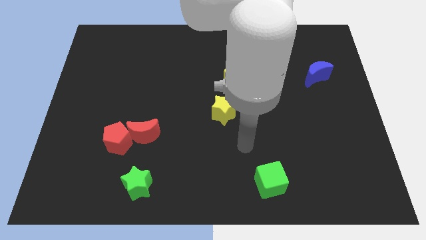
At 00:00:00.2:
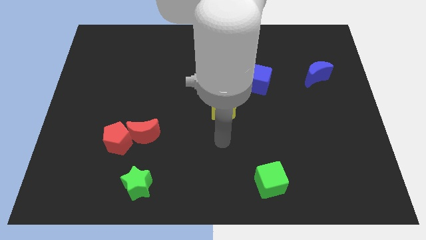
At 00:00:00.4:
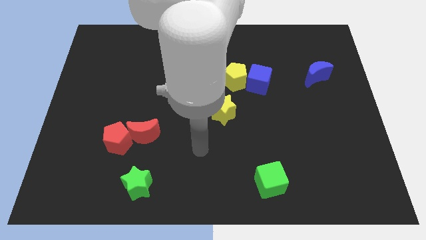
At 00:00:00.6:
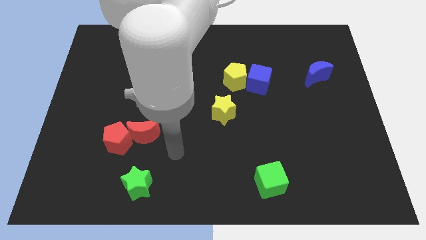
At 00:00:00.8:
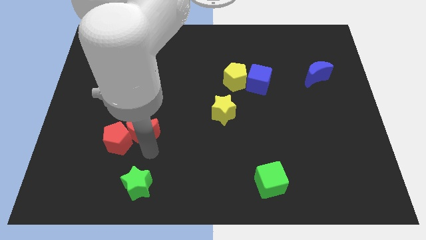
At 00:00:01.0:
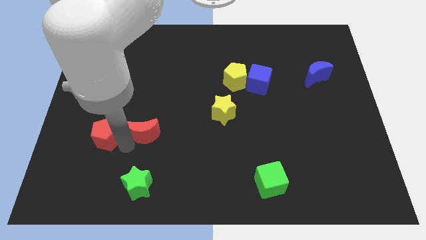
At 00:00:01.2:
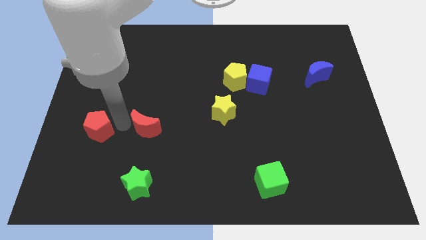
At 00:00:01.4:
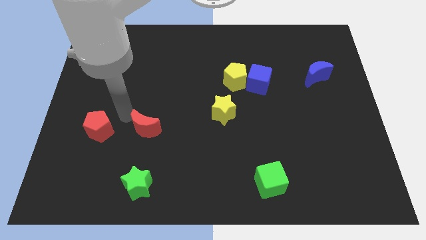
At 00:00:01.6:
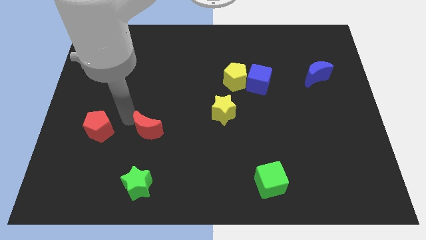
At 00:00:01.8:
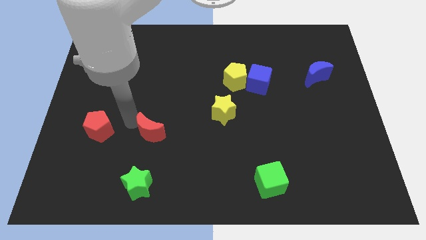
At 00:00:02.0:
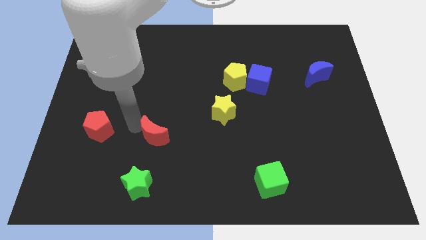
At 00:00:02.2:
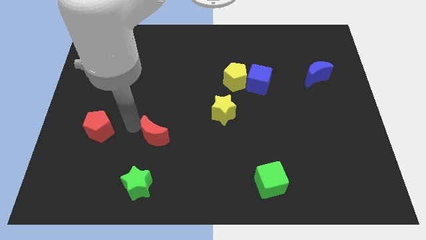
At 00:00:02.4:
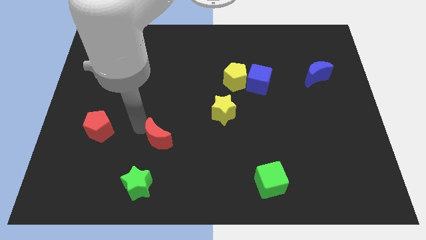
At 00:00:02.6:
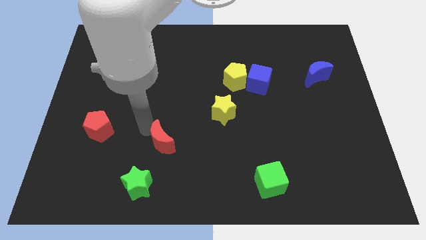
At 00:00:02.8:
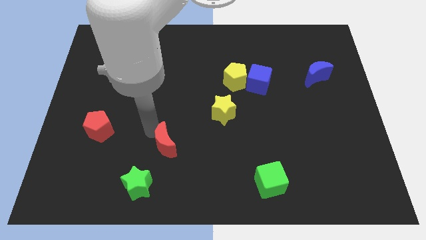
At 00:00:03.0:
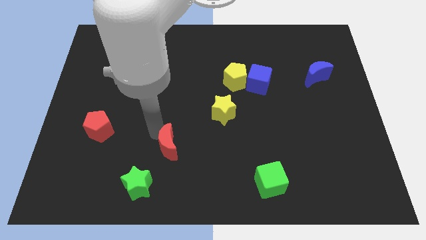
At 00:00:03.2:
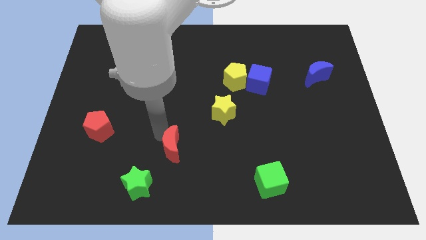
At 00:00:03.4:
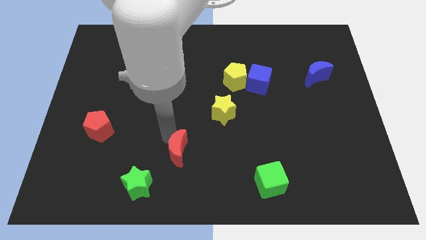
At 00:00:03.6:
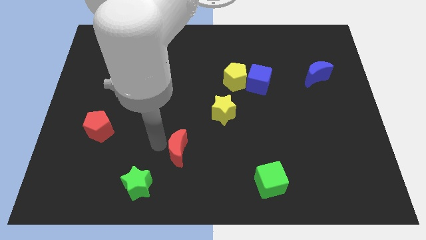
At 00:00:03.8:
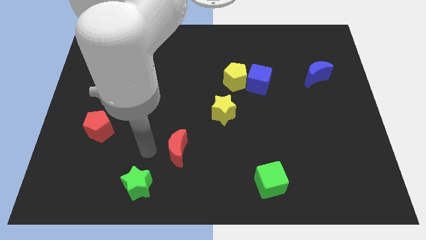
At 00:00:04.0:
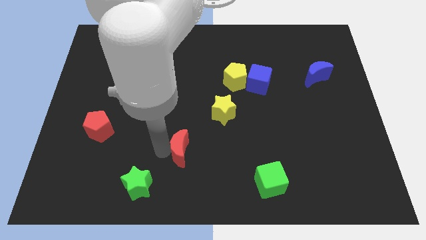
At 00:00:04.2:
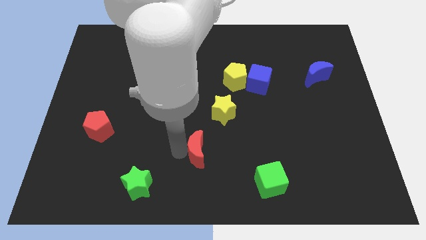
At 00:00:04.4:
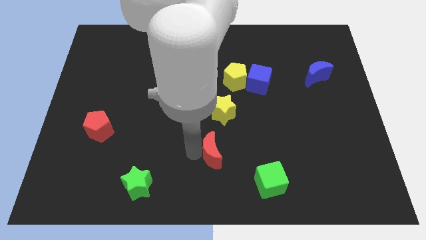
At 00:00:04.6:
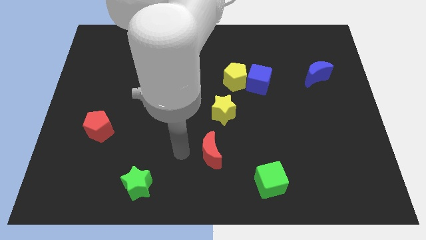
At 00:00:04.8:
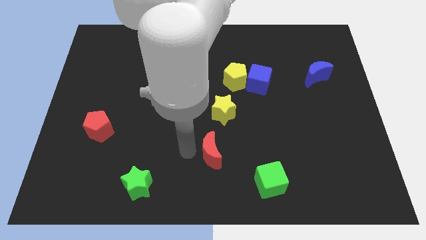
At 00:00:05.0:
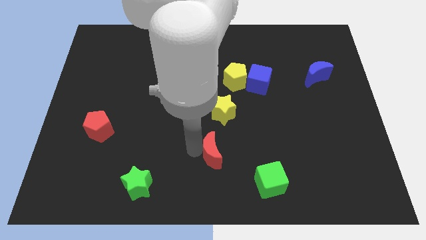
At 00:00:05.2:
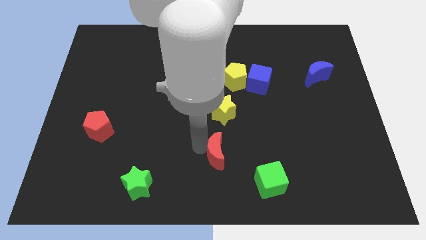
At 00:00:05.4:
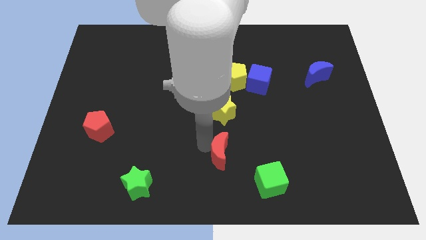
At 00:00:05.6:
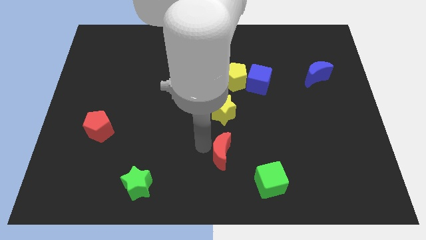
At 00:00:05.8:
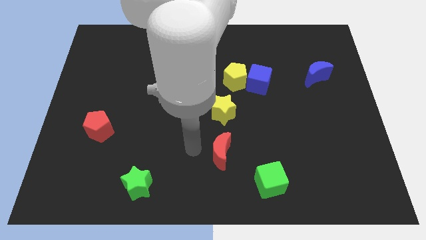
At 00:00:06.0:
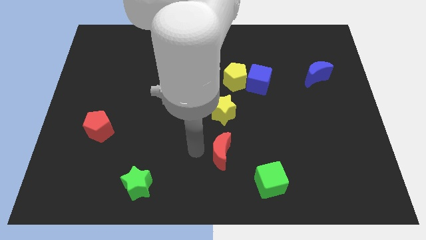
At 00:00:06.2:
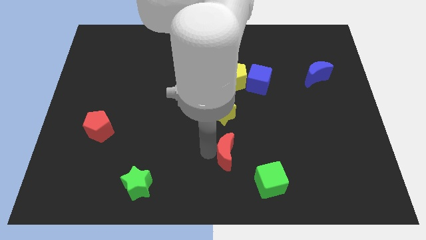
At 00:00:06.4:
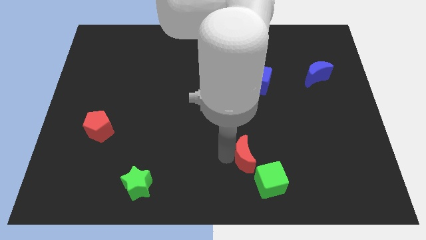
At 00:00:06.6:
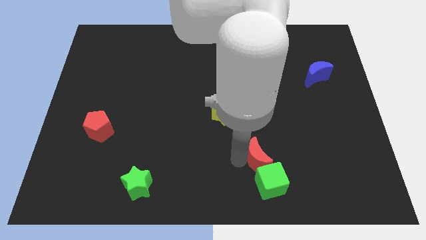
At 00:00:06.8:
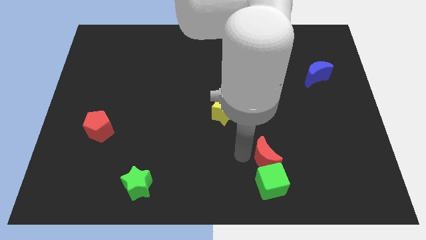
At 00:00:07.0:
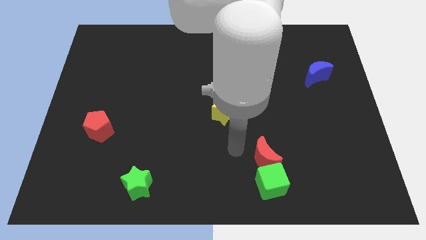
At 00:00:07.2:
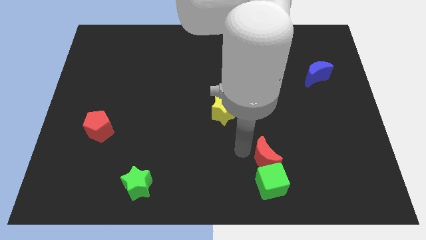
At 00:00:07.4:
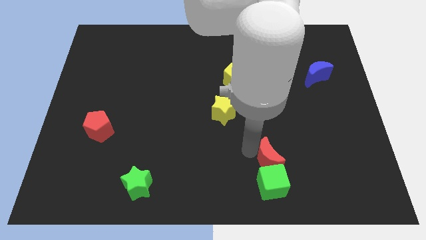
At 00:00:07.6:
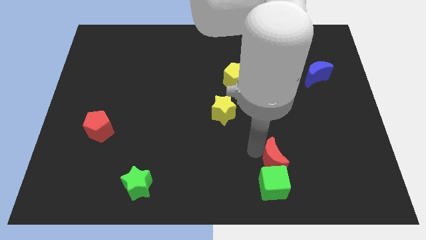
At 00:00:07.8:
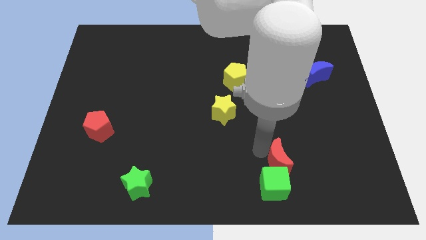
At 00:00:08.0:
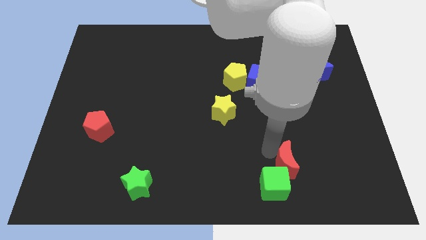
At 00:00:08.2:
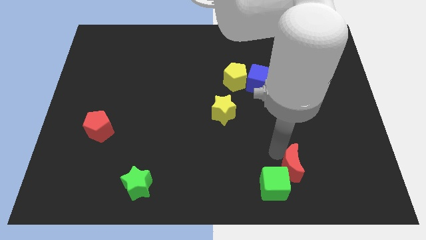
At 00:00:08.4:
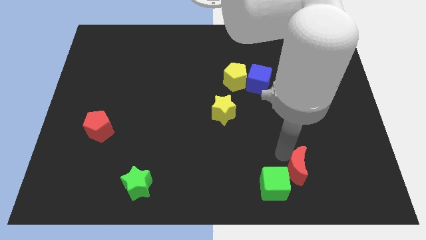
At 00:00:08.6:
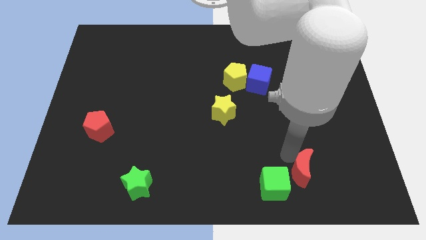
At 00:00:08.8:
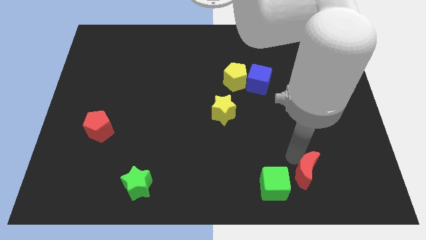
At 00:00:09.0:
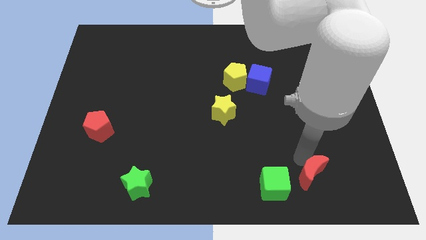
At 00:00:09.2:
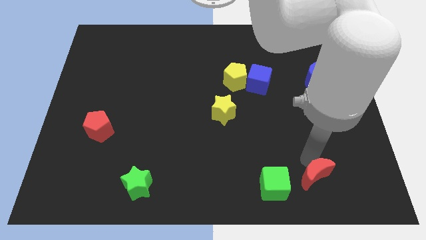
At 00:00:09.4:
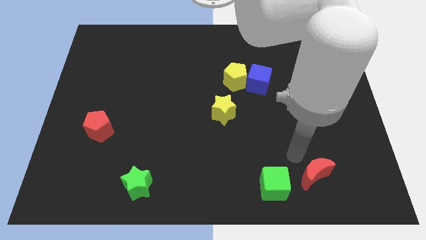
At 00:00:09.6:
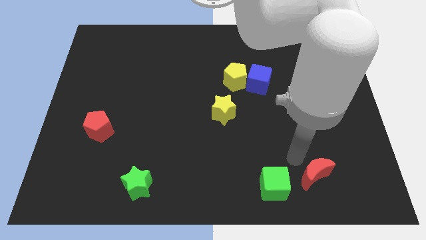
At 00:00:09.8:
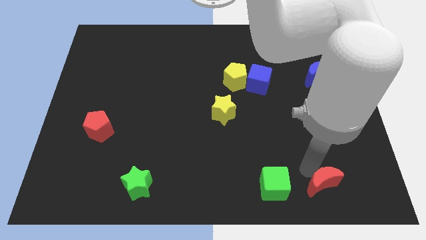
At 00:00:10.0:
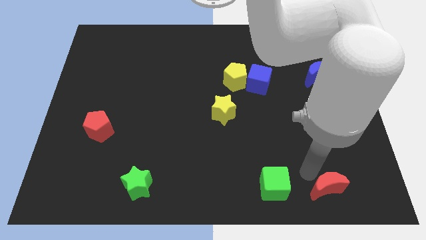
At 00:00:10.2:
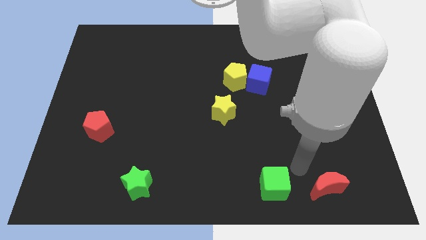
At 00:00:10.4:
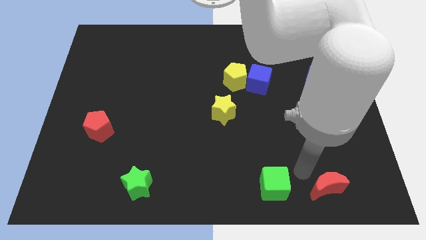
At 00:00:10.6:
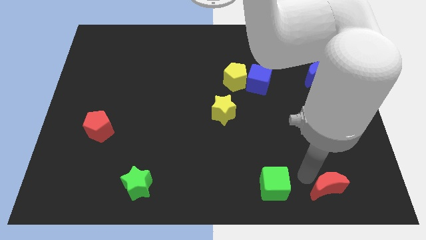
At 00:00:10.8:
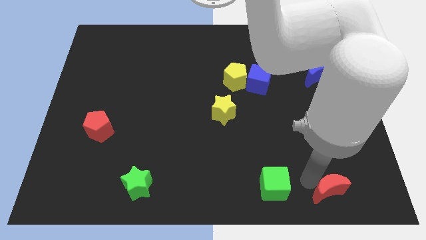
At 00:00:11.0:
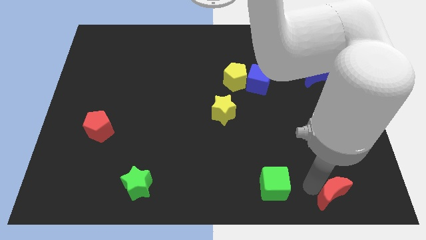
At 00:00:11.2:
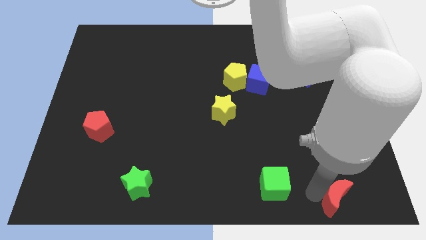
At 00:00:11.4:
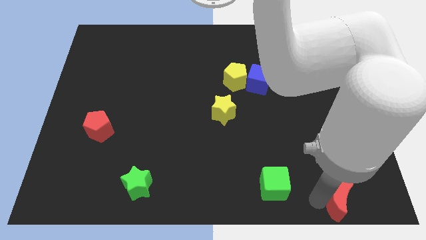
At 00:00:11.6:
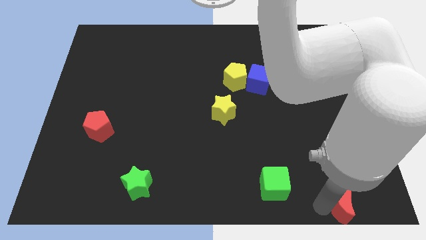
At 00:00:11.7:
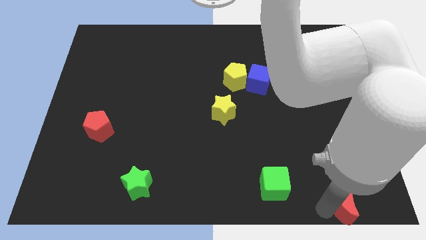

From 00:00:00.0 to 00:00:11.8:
push the red moon to the bottom right
